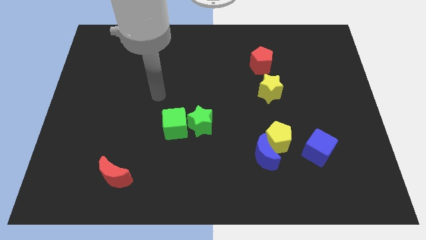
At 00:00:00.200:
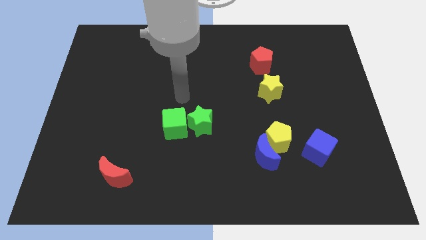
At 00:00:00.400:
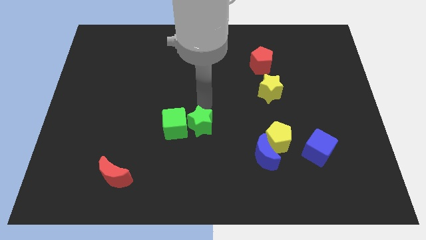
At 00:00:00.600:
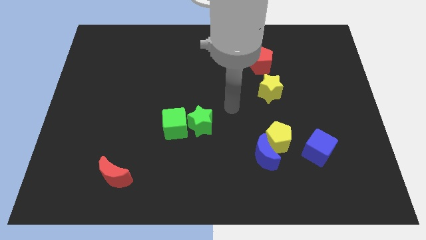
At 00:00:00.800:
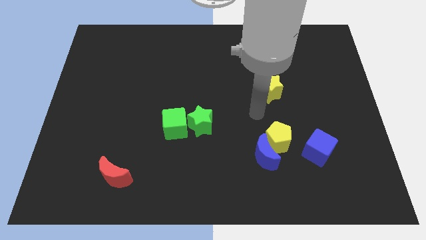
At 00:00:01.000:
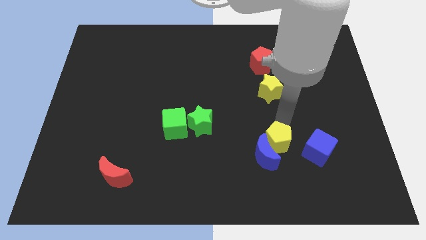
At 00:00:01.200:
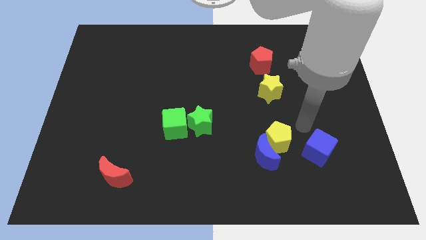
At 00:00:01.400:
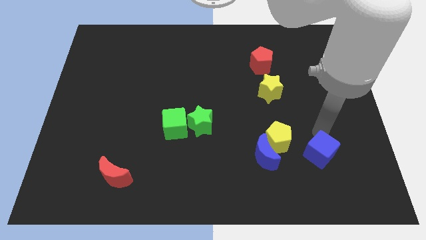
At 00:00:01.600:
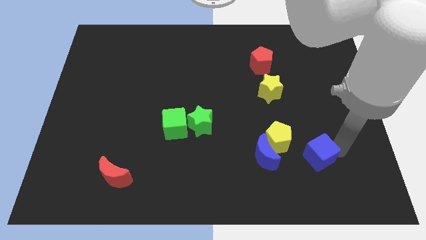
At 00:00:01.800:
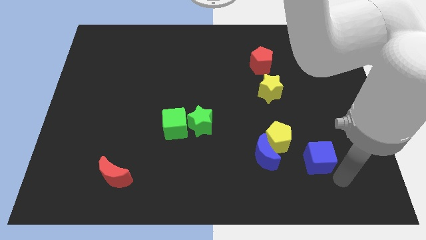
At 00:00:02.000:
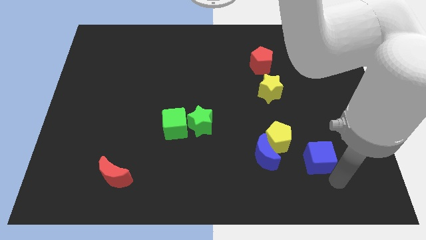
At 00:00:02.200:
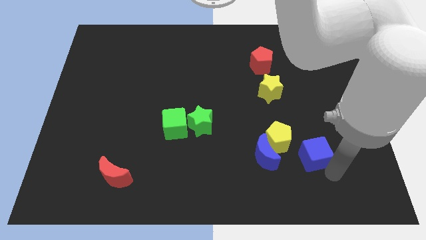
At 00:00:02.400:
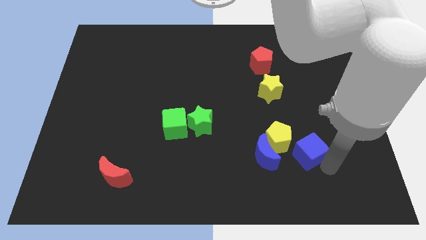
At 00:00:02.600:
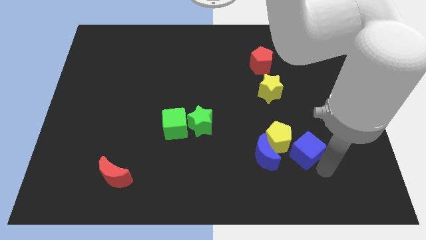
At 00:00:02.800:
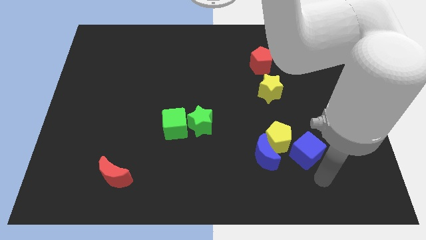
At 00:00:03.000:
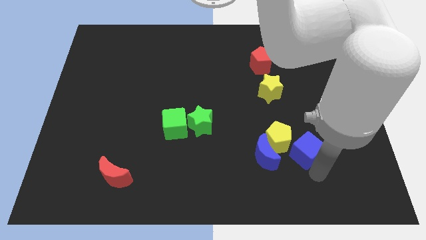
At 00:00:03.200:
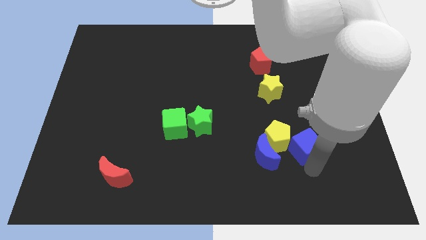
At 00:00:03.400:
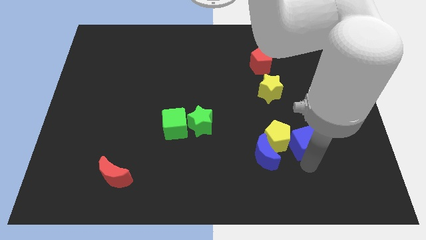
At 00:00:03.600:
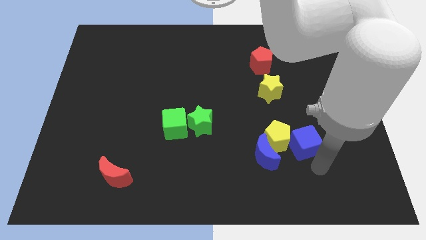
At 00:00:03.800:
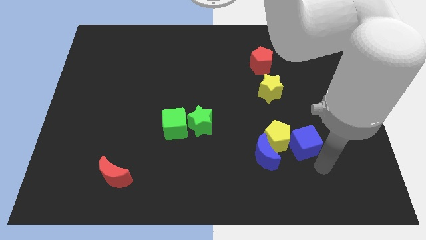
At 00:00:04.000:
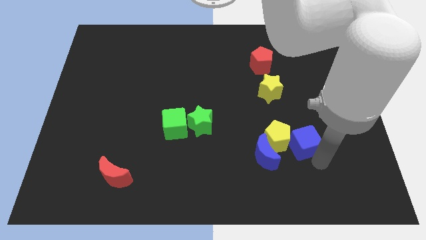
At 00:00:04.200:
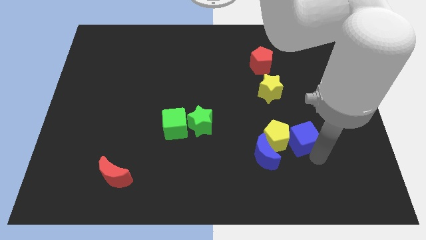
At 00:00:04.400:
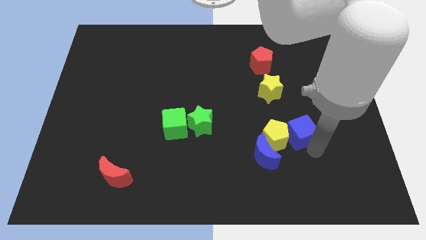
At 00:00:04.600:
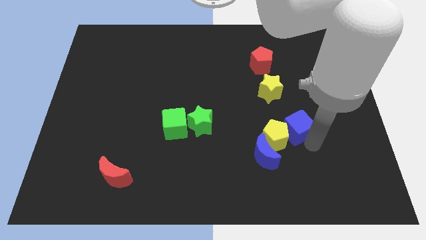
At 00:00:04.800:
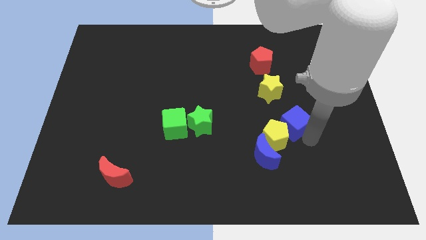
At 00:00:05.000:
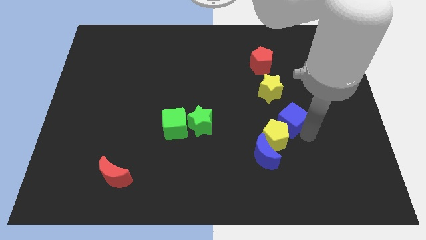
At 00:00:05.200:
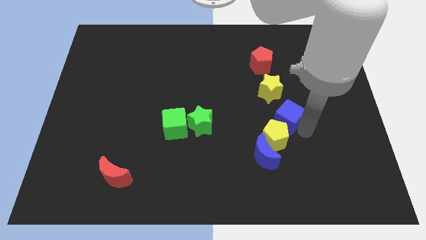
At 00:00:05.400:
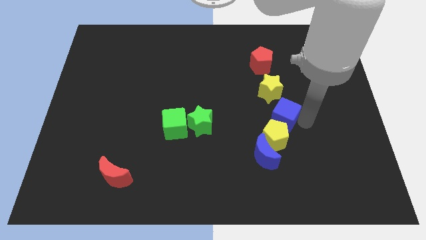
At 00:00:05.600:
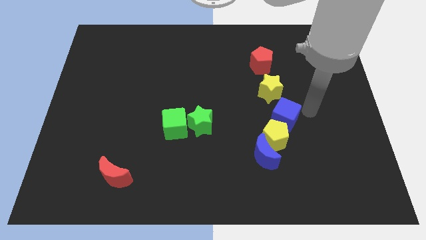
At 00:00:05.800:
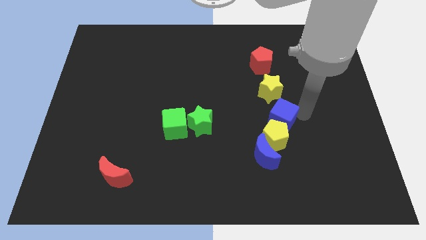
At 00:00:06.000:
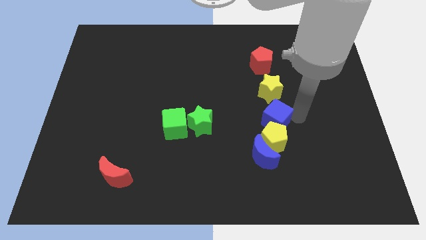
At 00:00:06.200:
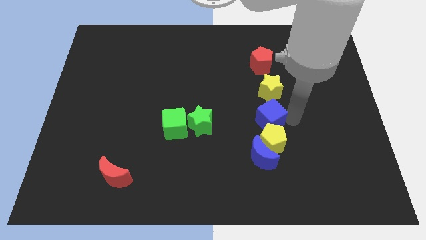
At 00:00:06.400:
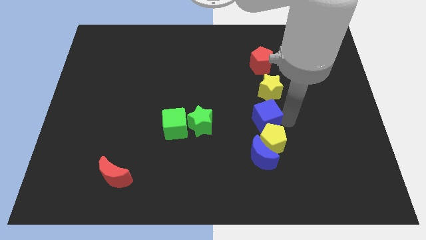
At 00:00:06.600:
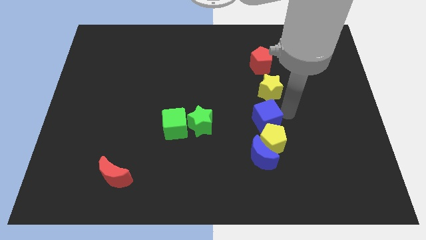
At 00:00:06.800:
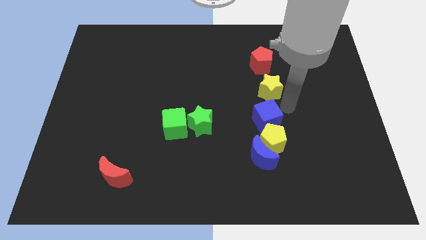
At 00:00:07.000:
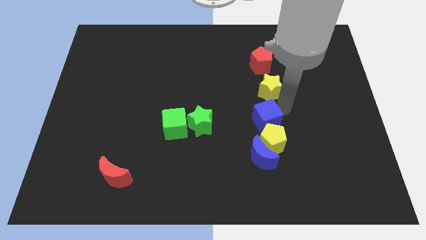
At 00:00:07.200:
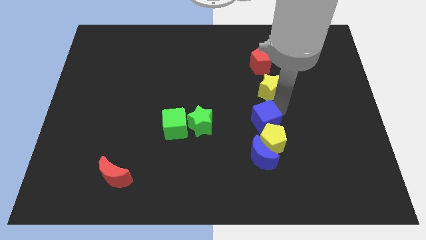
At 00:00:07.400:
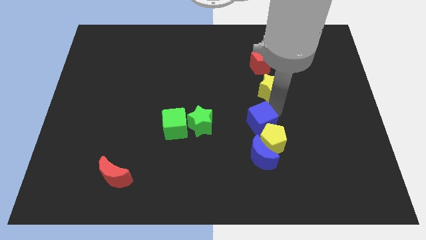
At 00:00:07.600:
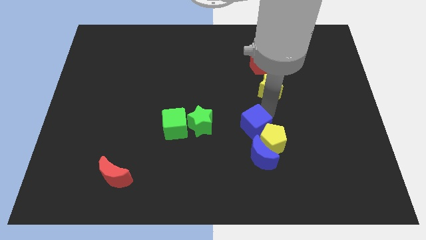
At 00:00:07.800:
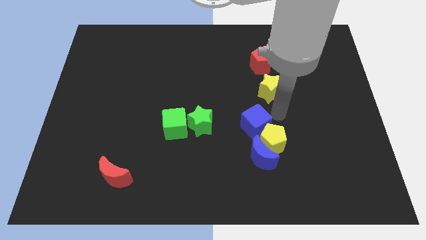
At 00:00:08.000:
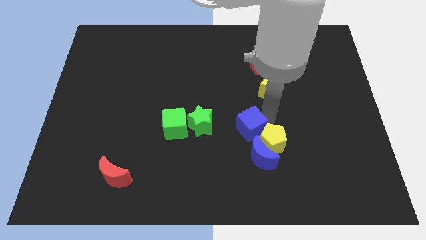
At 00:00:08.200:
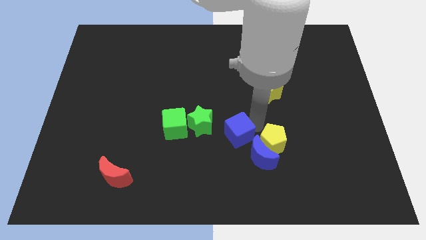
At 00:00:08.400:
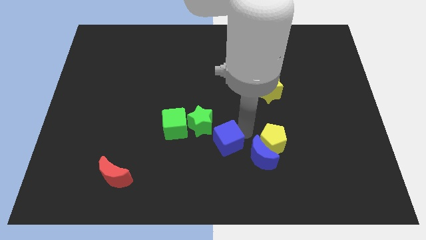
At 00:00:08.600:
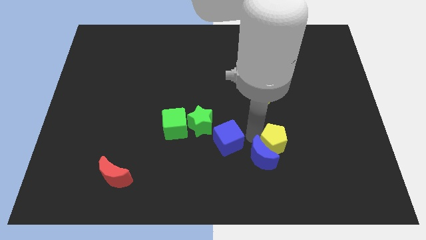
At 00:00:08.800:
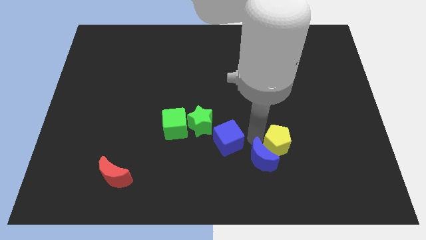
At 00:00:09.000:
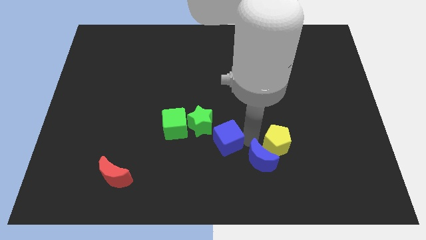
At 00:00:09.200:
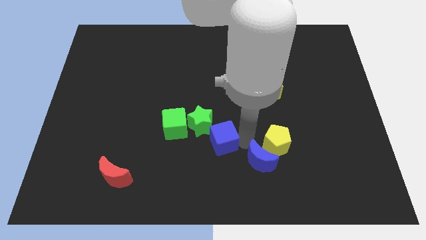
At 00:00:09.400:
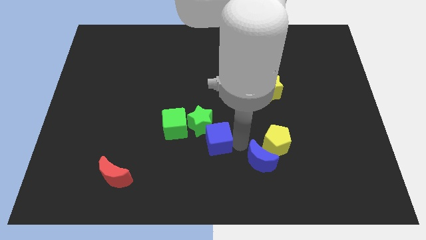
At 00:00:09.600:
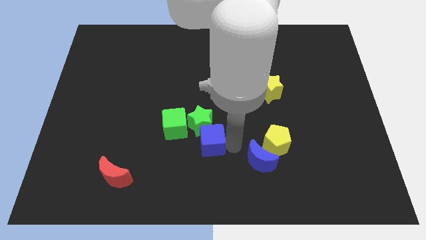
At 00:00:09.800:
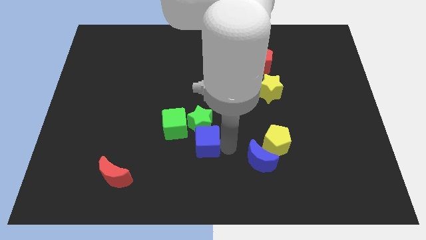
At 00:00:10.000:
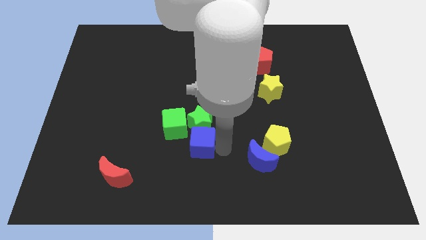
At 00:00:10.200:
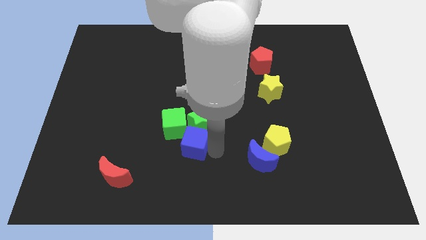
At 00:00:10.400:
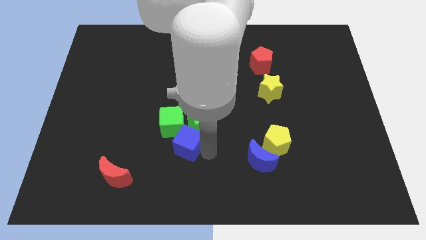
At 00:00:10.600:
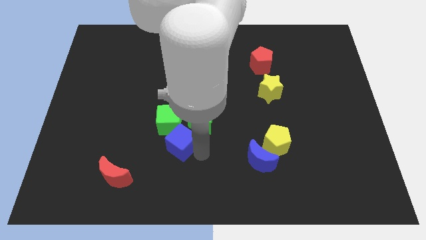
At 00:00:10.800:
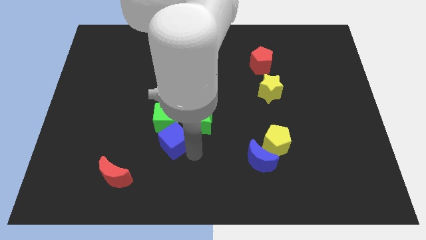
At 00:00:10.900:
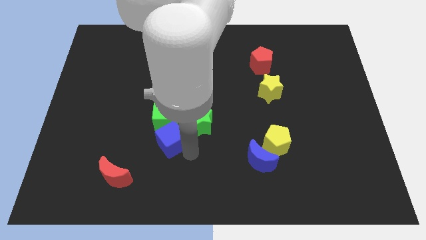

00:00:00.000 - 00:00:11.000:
slide the blue cube towards the green cube

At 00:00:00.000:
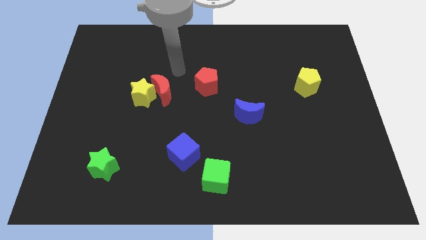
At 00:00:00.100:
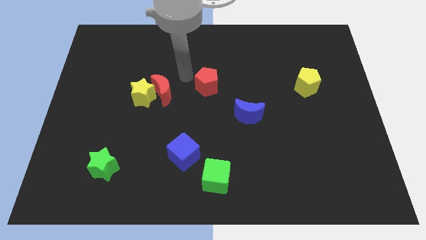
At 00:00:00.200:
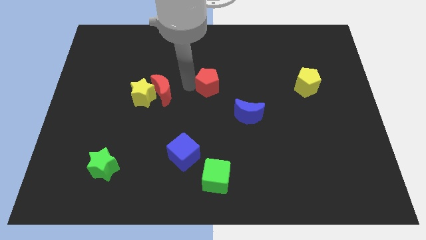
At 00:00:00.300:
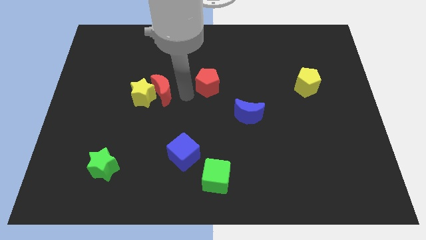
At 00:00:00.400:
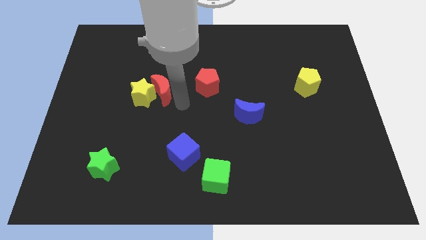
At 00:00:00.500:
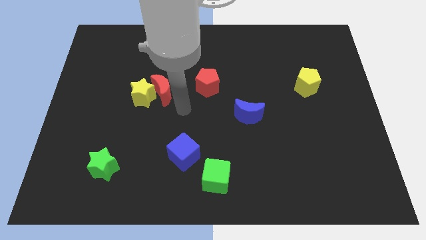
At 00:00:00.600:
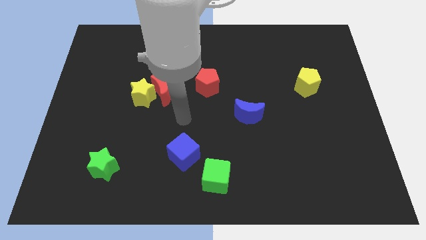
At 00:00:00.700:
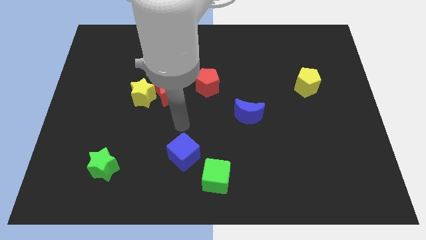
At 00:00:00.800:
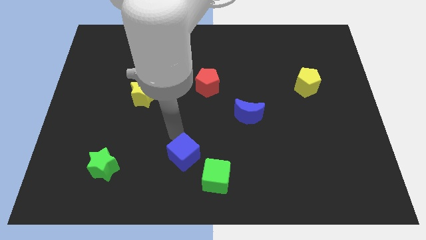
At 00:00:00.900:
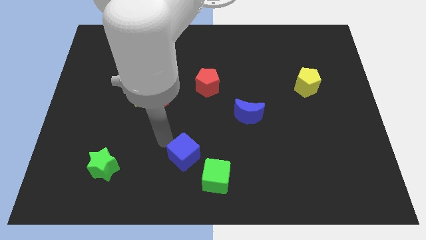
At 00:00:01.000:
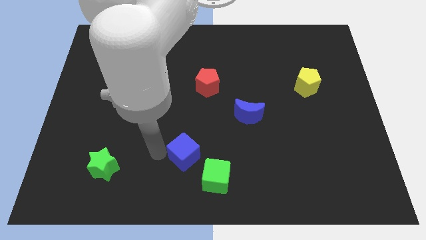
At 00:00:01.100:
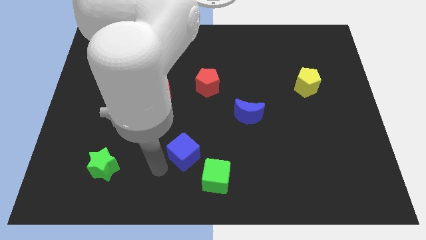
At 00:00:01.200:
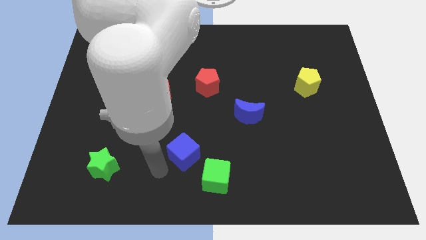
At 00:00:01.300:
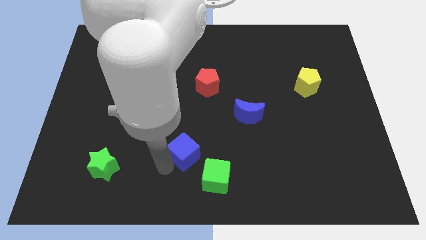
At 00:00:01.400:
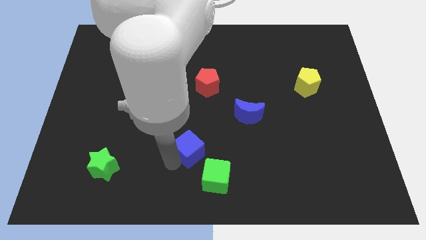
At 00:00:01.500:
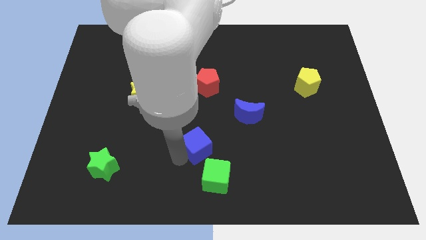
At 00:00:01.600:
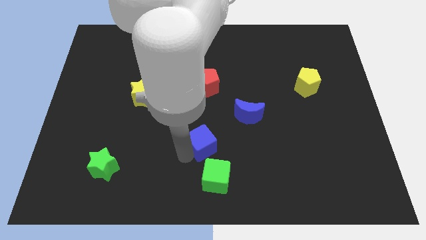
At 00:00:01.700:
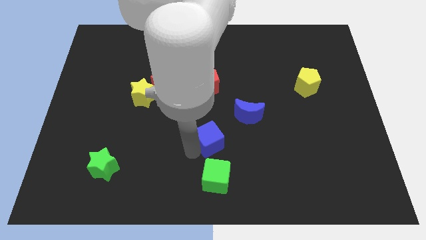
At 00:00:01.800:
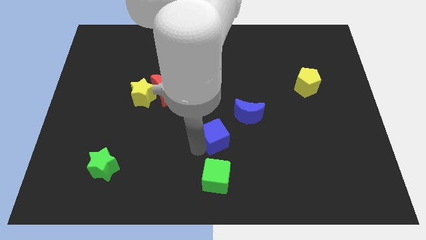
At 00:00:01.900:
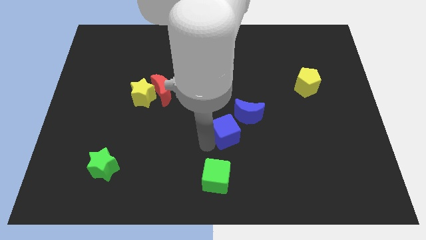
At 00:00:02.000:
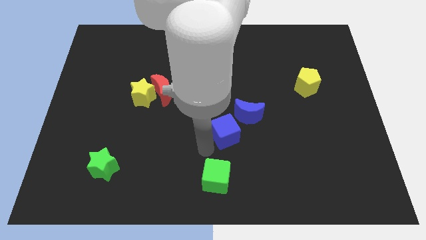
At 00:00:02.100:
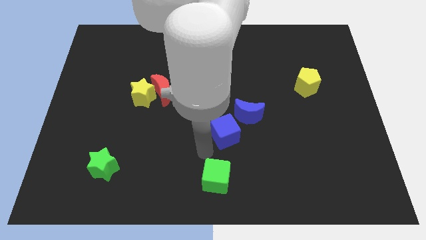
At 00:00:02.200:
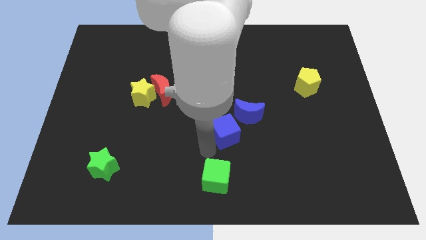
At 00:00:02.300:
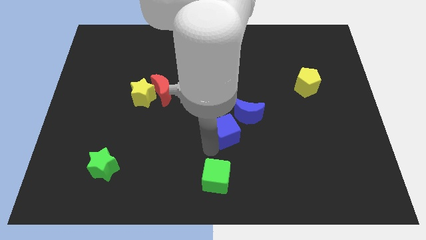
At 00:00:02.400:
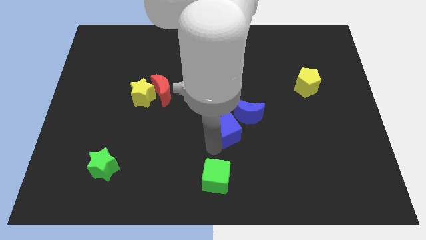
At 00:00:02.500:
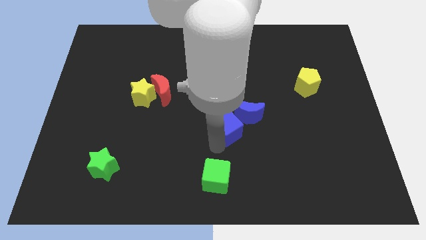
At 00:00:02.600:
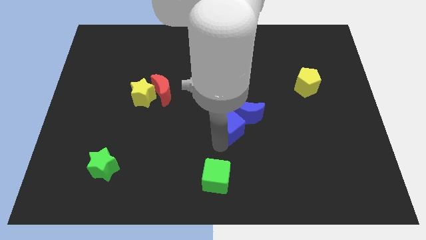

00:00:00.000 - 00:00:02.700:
move the blue cube next to the blue moon
